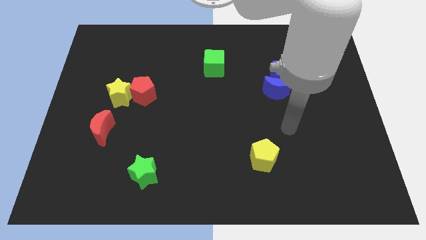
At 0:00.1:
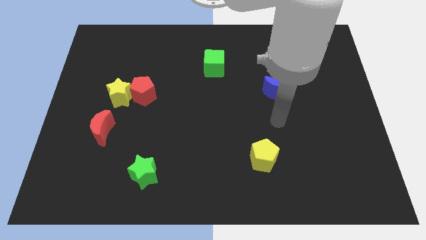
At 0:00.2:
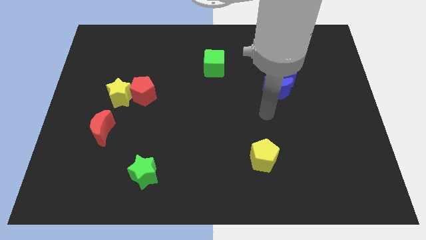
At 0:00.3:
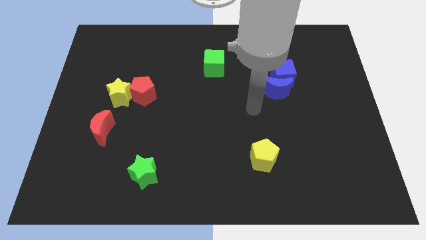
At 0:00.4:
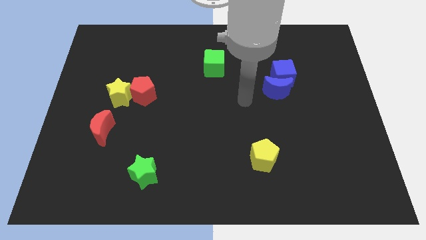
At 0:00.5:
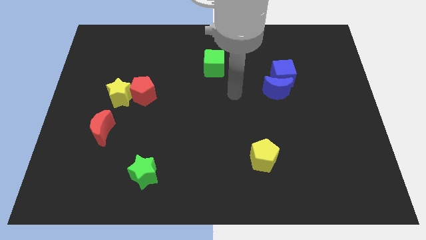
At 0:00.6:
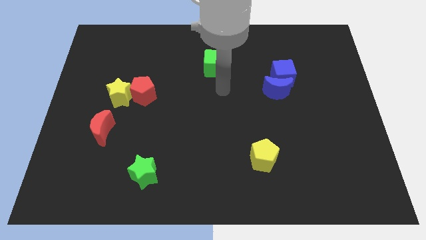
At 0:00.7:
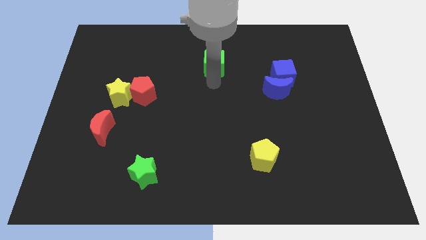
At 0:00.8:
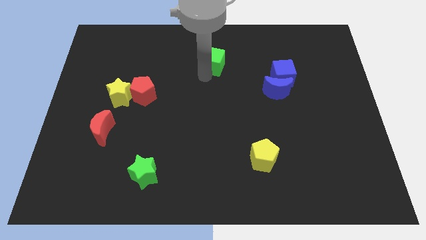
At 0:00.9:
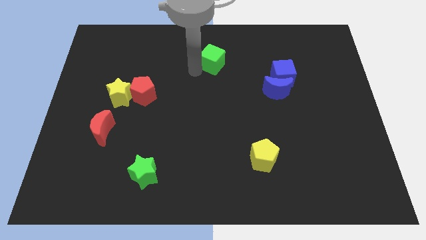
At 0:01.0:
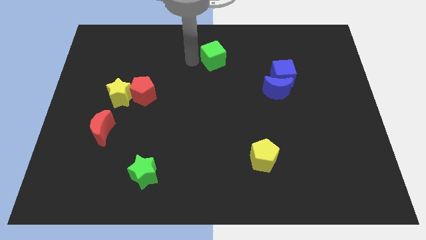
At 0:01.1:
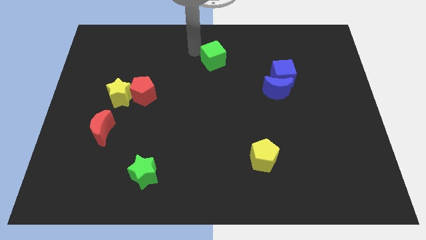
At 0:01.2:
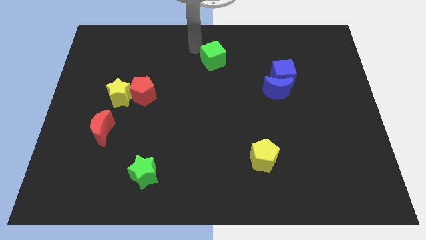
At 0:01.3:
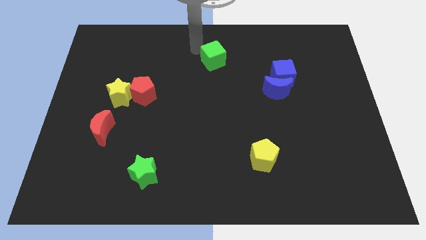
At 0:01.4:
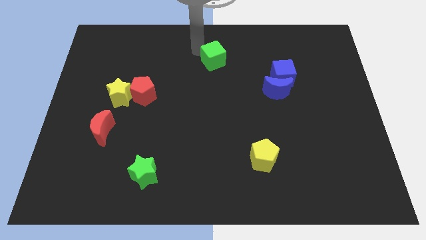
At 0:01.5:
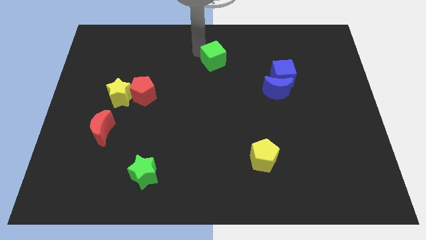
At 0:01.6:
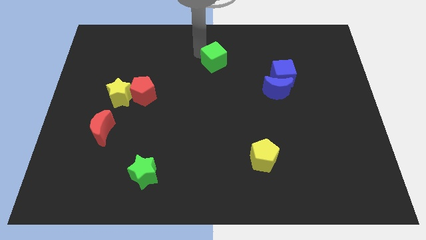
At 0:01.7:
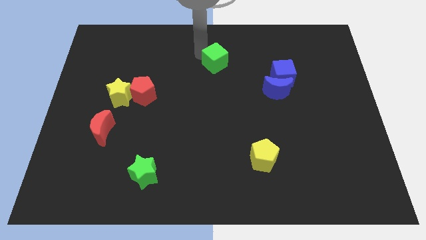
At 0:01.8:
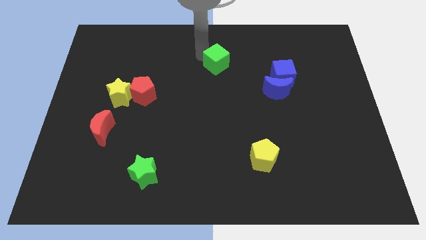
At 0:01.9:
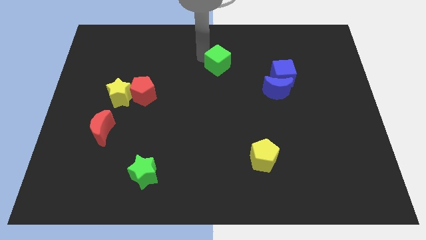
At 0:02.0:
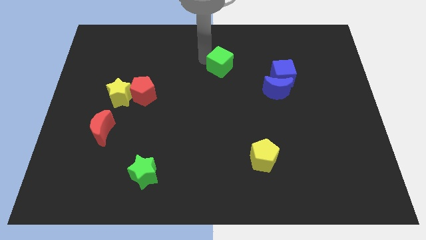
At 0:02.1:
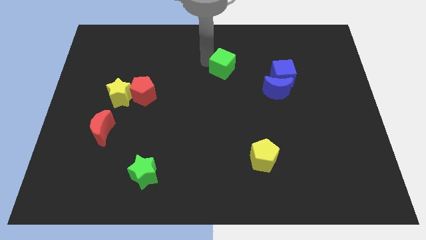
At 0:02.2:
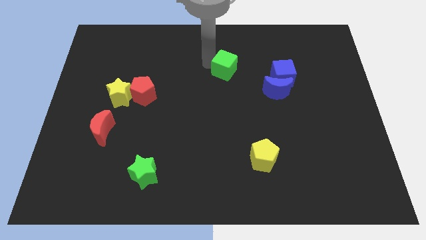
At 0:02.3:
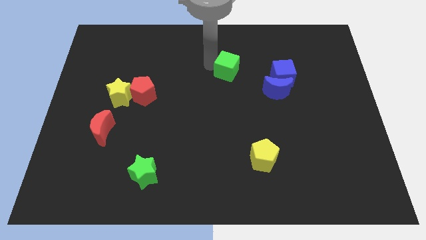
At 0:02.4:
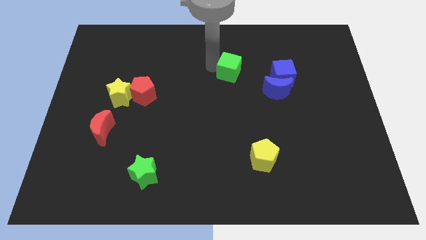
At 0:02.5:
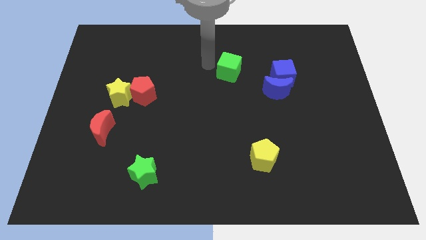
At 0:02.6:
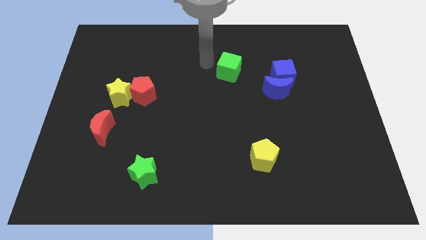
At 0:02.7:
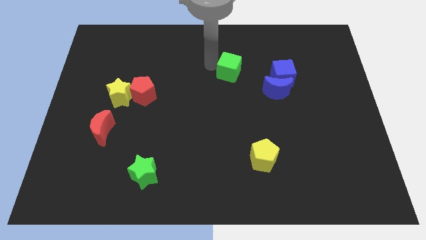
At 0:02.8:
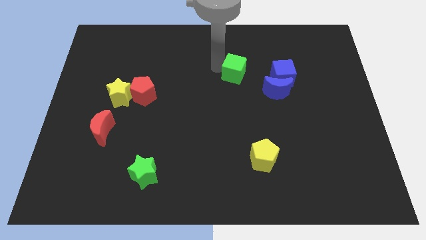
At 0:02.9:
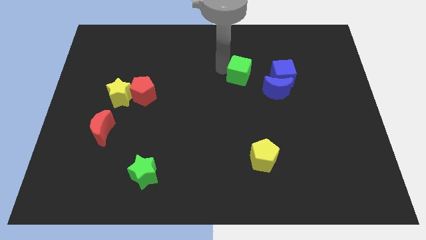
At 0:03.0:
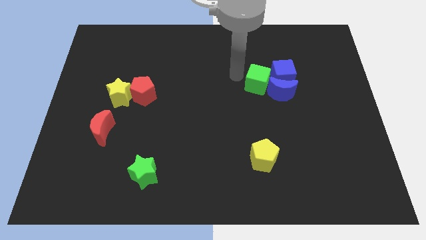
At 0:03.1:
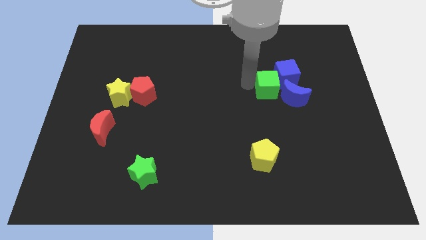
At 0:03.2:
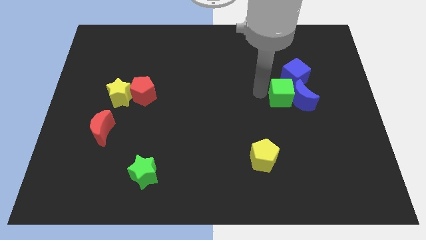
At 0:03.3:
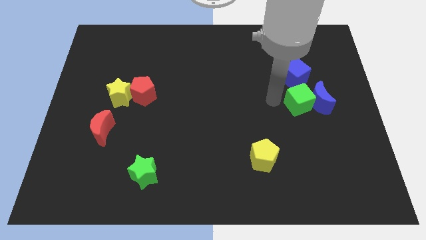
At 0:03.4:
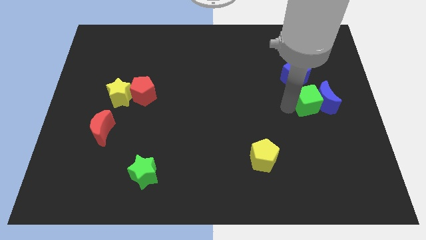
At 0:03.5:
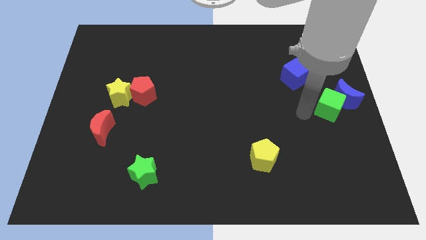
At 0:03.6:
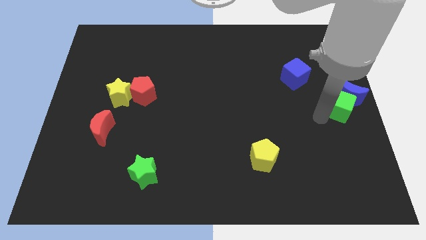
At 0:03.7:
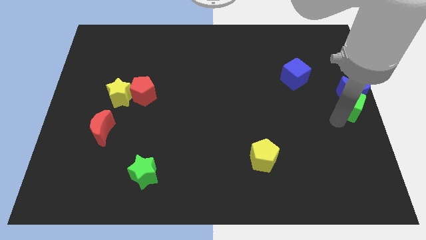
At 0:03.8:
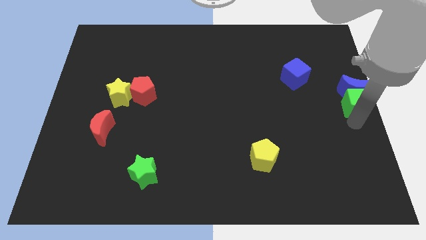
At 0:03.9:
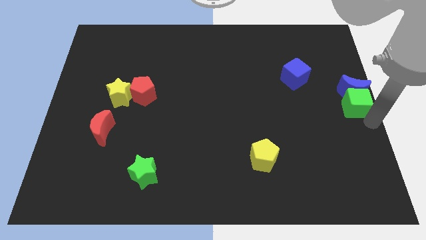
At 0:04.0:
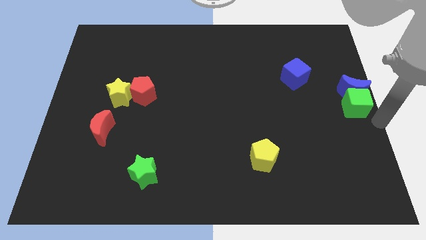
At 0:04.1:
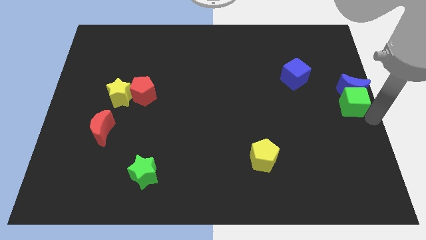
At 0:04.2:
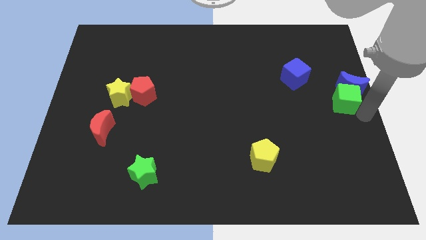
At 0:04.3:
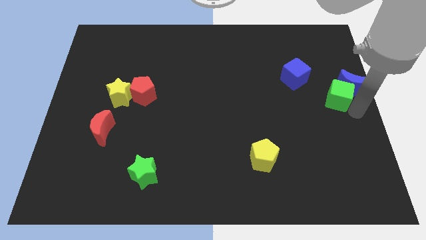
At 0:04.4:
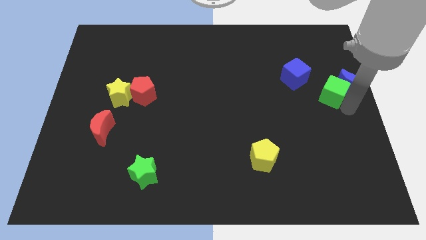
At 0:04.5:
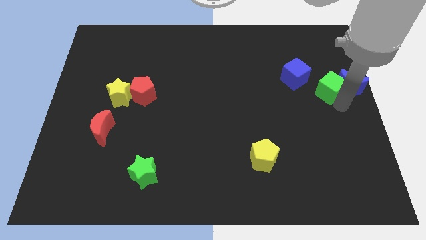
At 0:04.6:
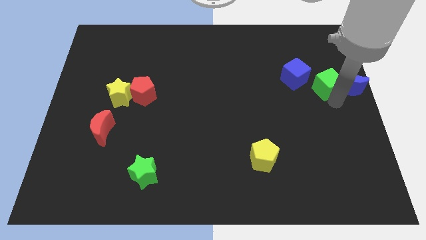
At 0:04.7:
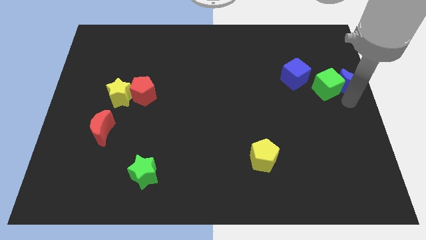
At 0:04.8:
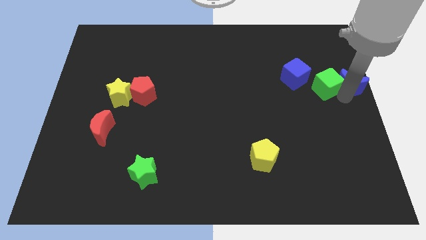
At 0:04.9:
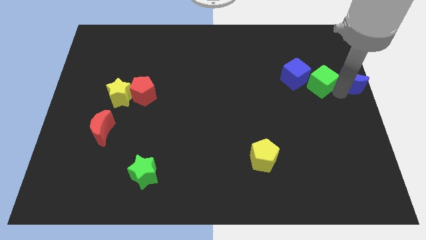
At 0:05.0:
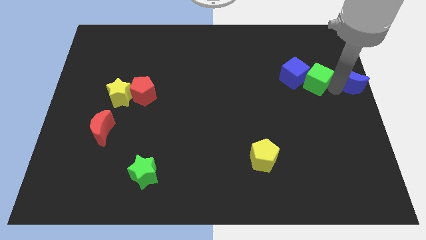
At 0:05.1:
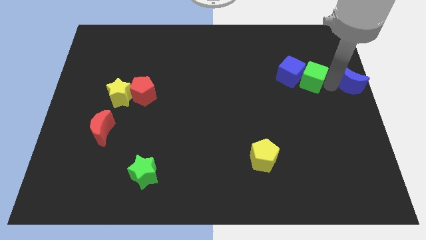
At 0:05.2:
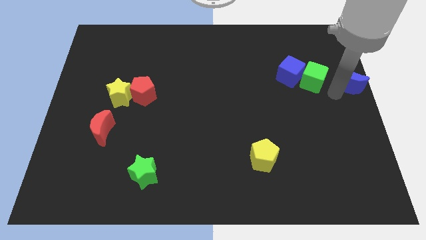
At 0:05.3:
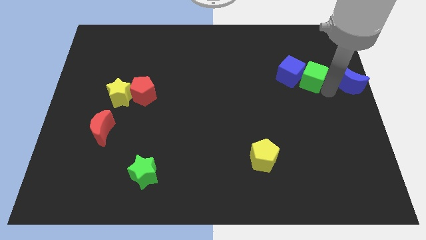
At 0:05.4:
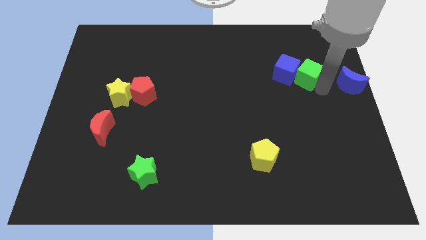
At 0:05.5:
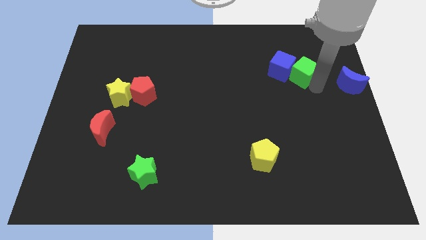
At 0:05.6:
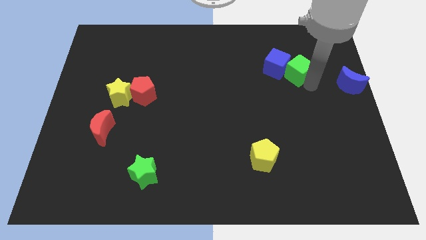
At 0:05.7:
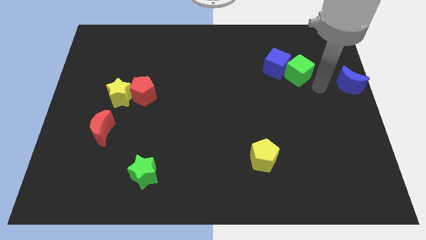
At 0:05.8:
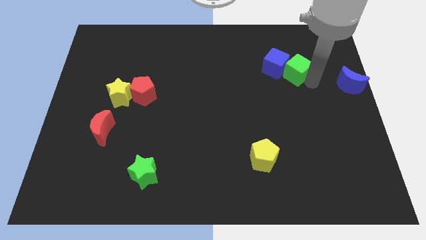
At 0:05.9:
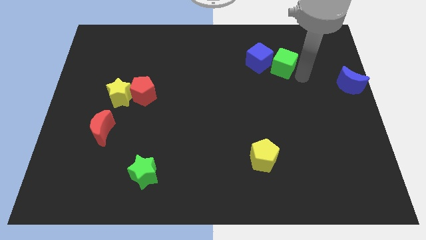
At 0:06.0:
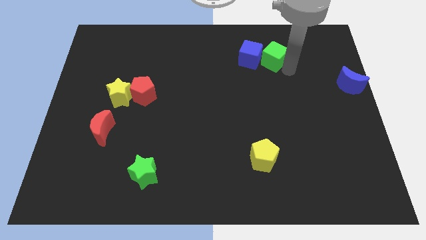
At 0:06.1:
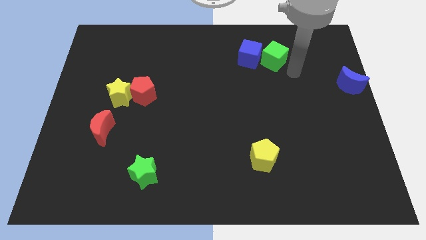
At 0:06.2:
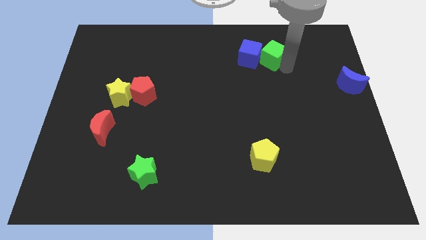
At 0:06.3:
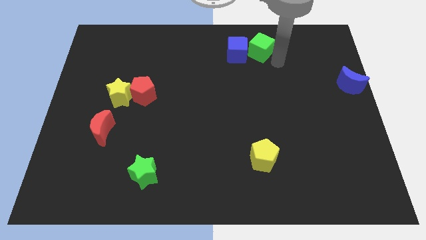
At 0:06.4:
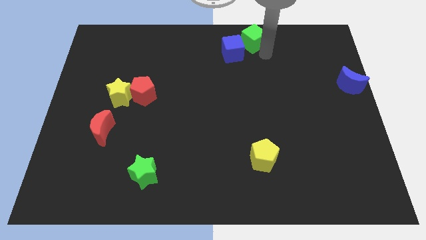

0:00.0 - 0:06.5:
put the green cube to the top

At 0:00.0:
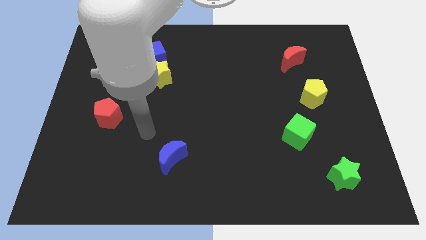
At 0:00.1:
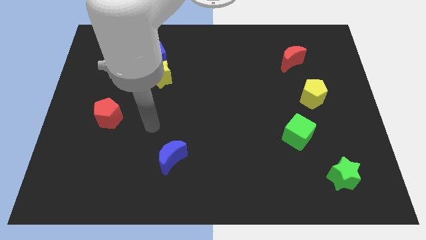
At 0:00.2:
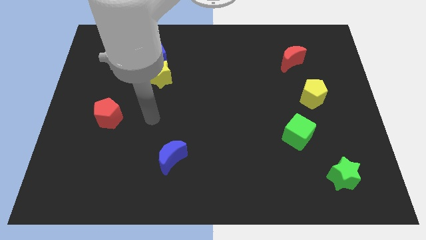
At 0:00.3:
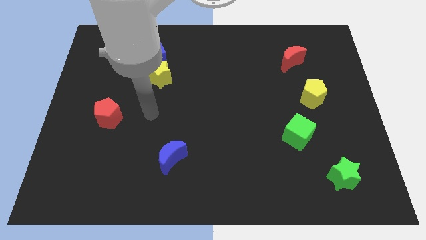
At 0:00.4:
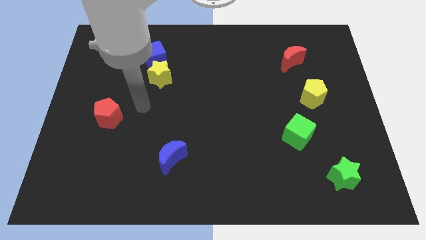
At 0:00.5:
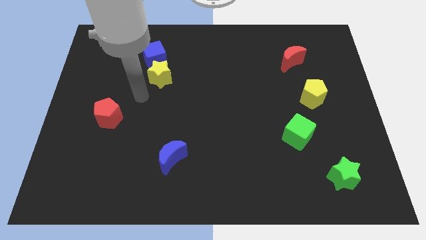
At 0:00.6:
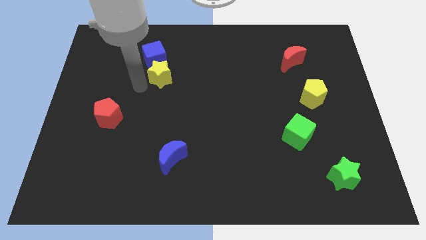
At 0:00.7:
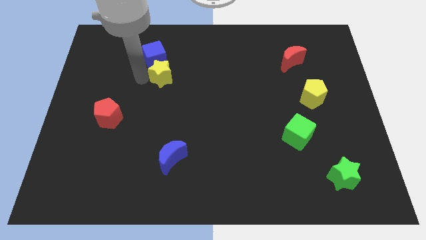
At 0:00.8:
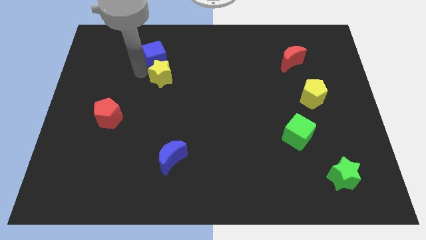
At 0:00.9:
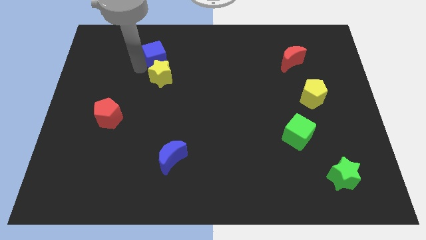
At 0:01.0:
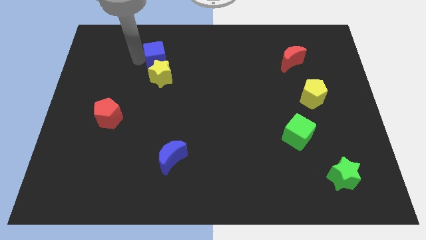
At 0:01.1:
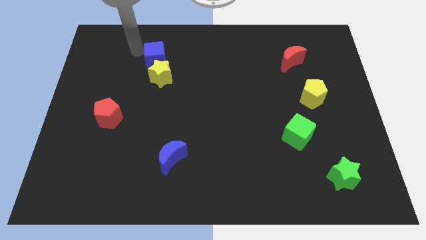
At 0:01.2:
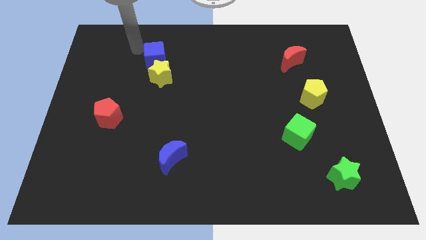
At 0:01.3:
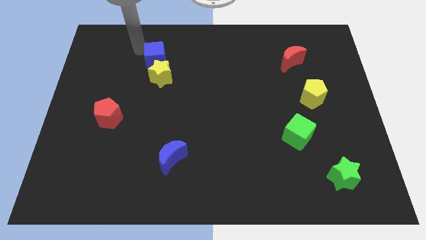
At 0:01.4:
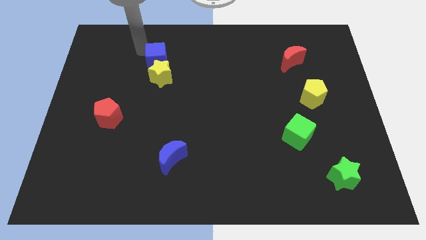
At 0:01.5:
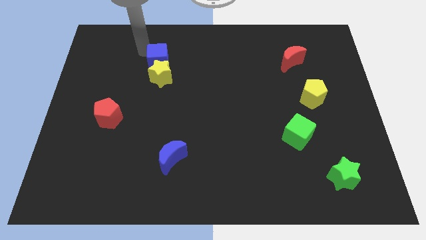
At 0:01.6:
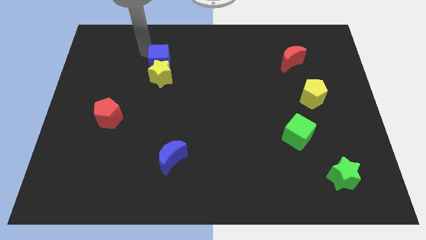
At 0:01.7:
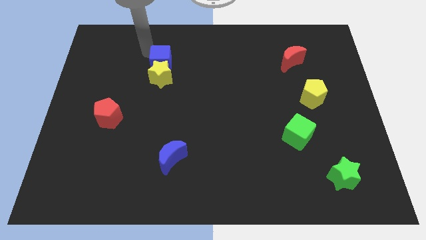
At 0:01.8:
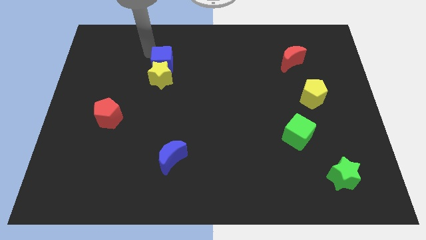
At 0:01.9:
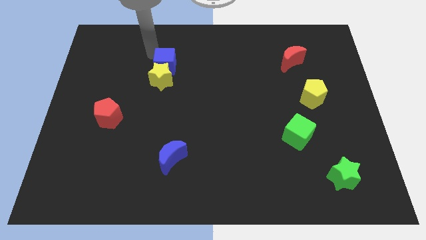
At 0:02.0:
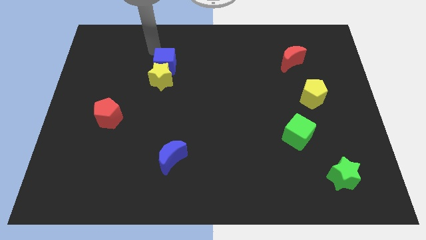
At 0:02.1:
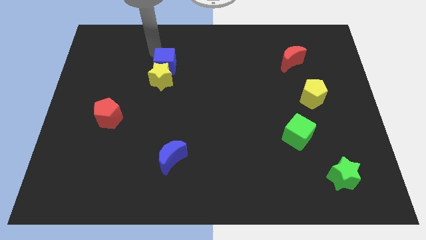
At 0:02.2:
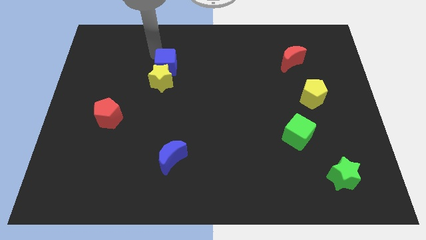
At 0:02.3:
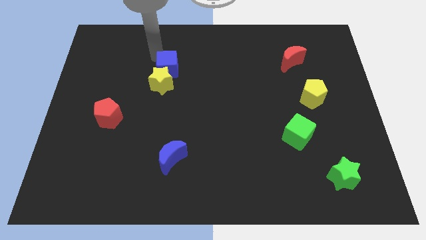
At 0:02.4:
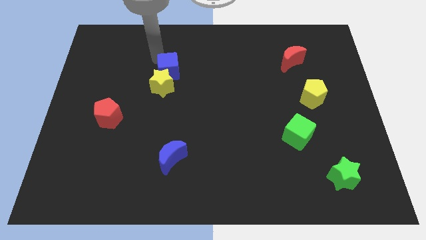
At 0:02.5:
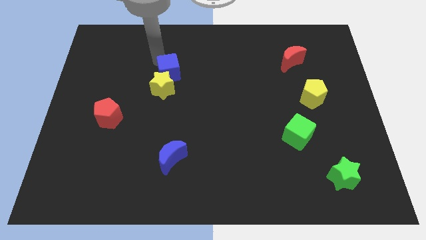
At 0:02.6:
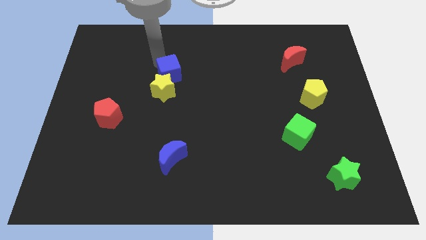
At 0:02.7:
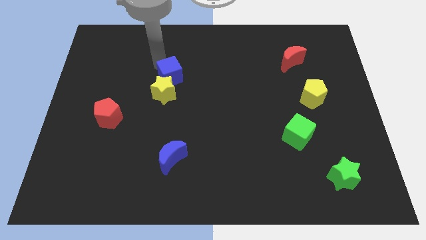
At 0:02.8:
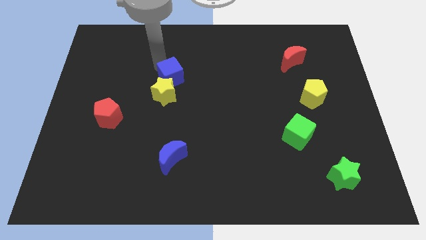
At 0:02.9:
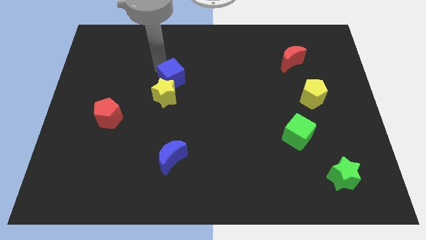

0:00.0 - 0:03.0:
move the blue cube to the middle of the board
